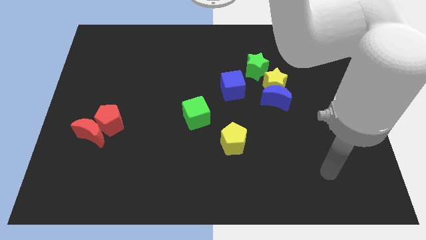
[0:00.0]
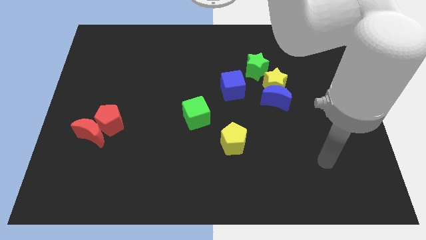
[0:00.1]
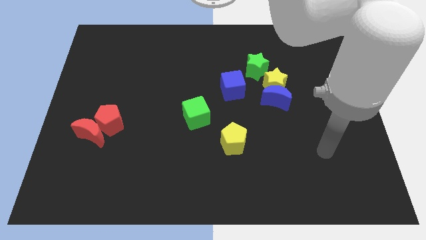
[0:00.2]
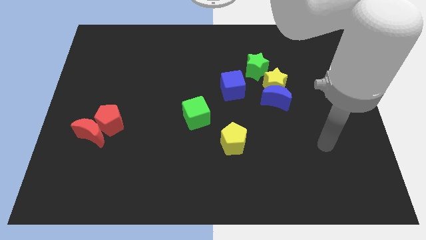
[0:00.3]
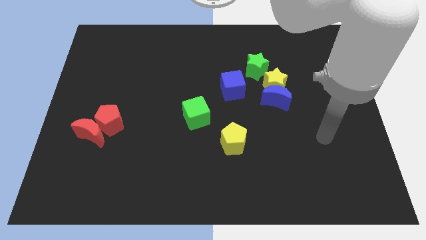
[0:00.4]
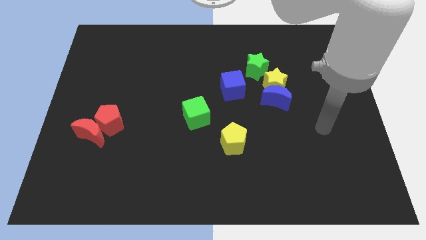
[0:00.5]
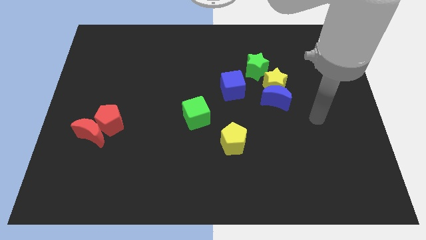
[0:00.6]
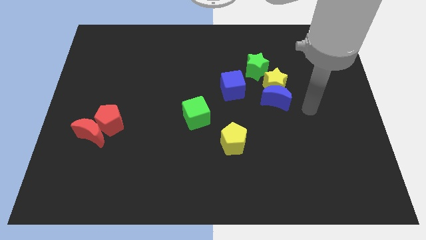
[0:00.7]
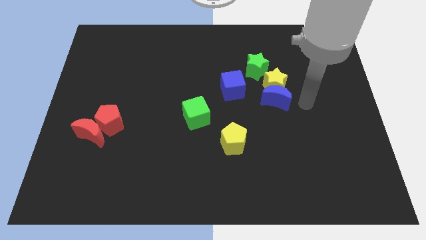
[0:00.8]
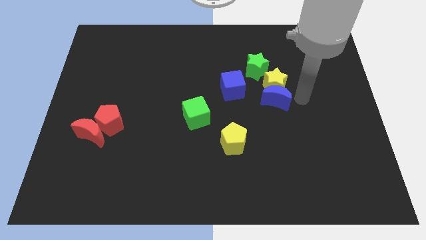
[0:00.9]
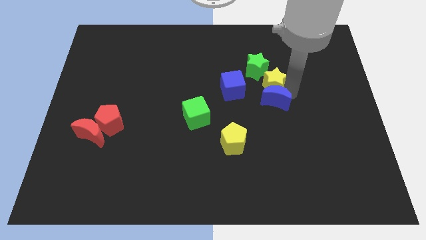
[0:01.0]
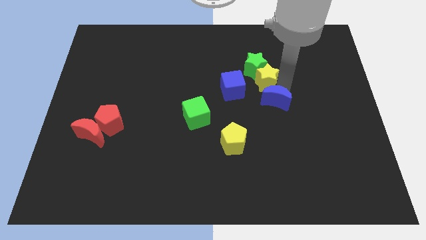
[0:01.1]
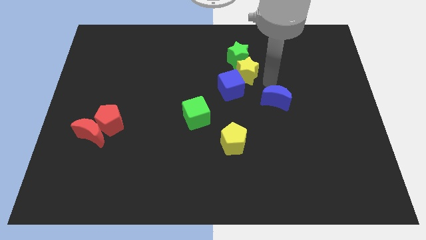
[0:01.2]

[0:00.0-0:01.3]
pull the blue moon apart from the yellow star

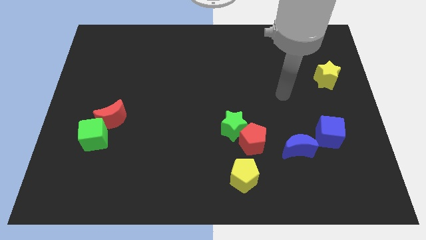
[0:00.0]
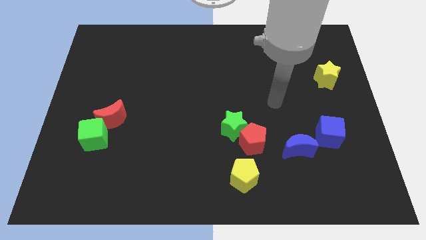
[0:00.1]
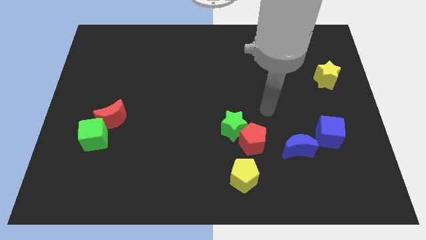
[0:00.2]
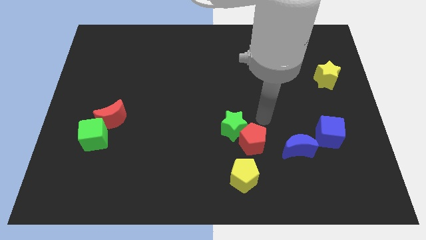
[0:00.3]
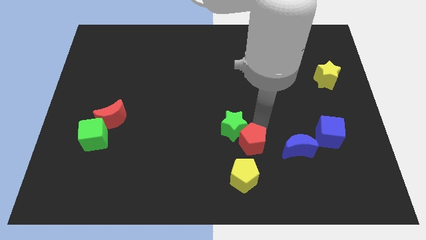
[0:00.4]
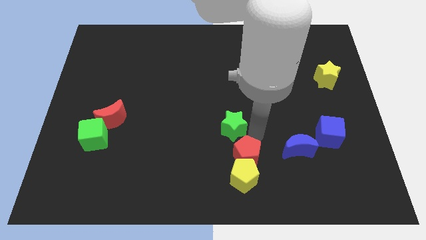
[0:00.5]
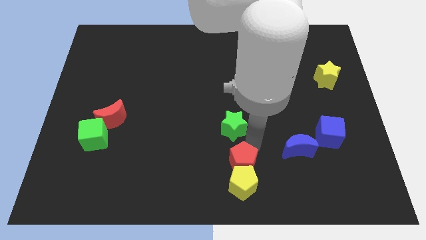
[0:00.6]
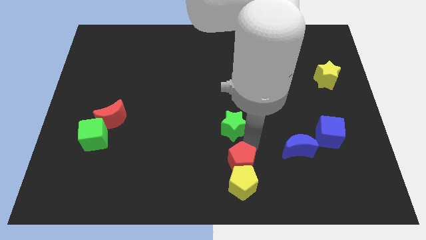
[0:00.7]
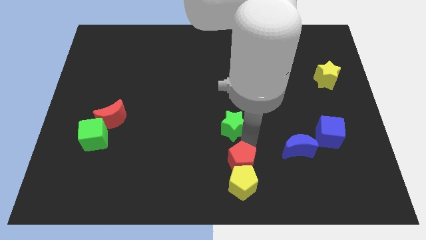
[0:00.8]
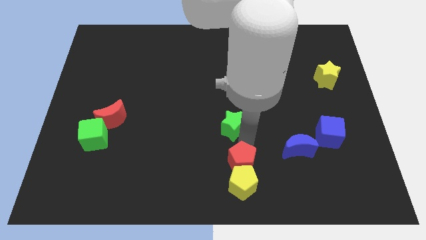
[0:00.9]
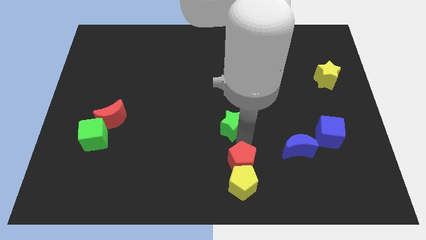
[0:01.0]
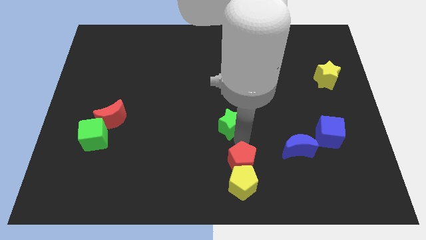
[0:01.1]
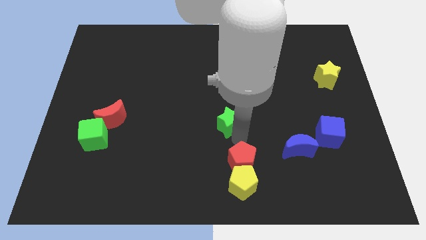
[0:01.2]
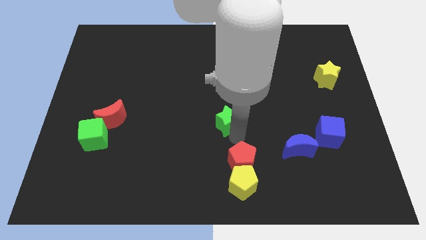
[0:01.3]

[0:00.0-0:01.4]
move the green star away from the red pentagon

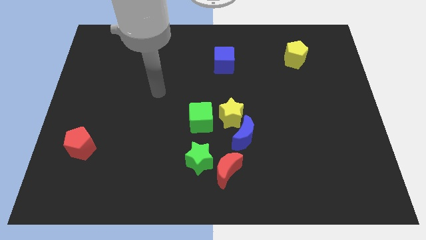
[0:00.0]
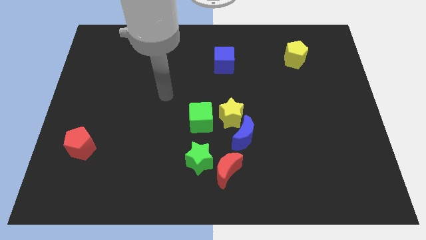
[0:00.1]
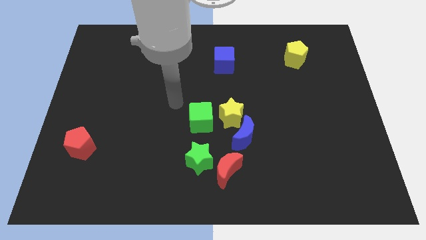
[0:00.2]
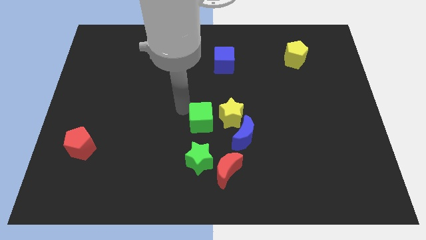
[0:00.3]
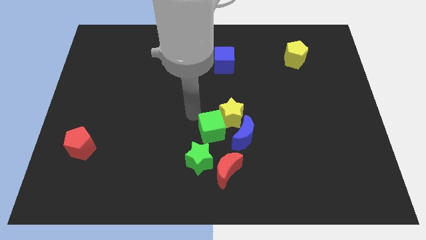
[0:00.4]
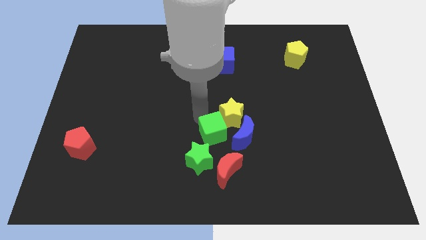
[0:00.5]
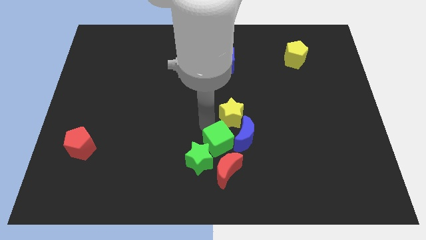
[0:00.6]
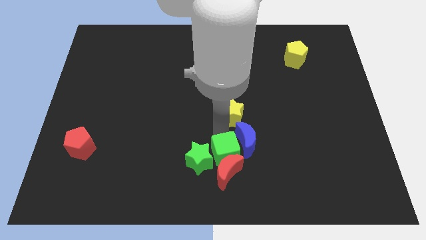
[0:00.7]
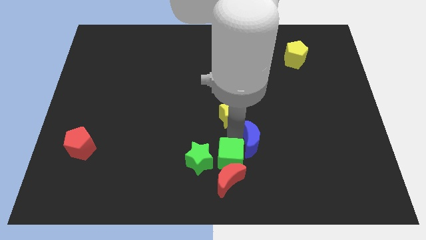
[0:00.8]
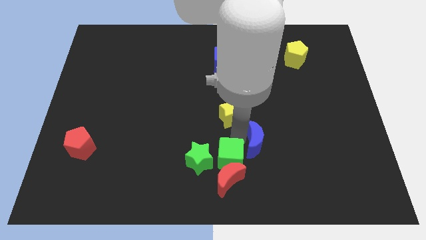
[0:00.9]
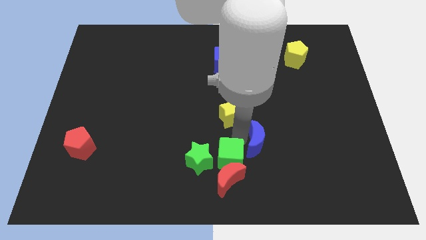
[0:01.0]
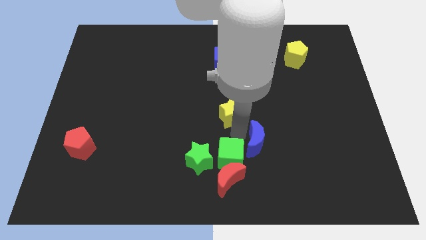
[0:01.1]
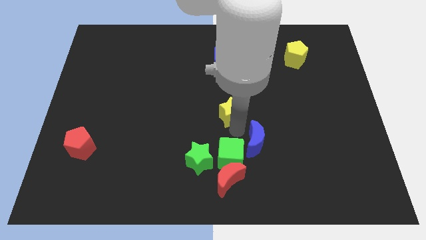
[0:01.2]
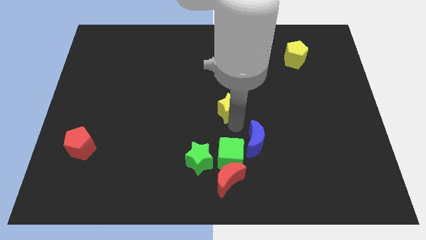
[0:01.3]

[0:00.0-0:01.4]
pull the yellow star apart from the blue moon and green cube

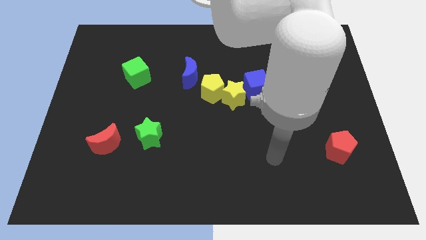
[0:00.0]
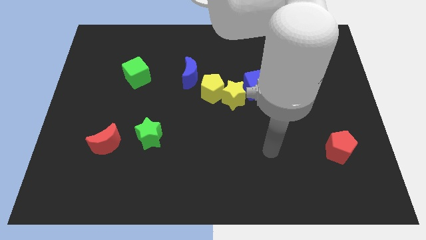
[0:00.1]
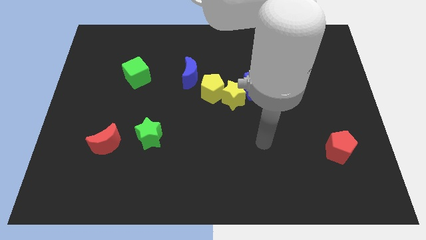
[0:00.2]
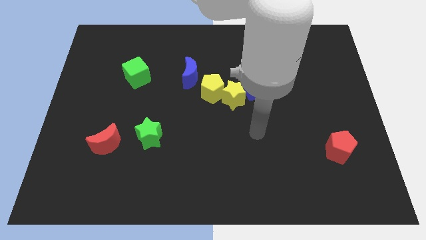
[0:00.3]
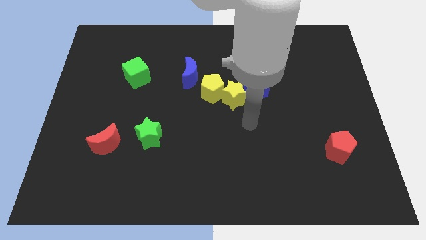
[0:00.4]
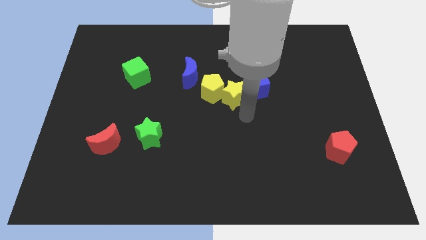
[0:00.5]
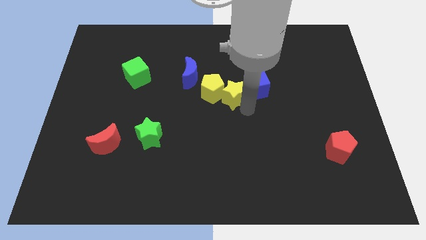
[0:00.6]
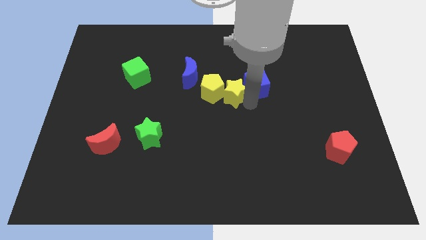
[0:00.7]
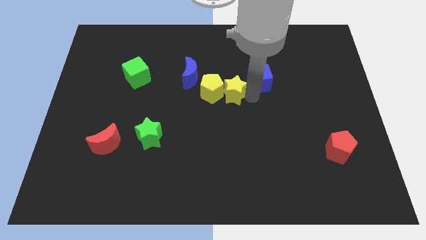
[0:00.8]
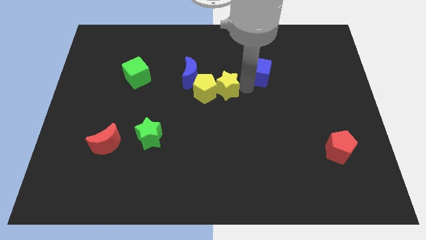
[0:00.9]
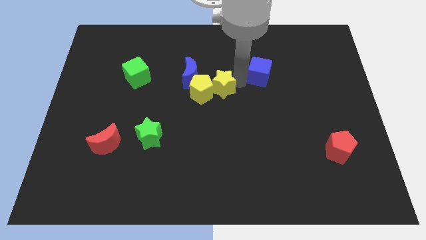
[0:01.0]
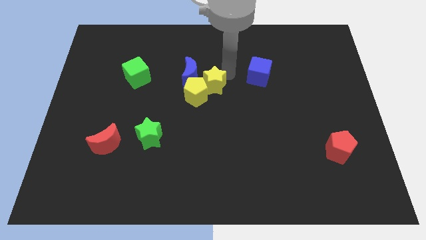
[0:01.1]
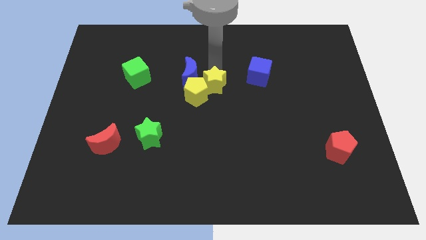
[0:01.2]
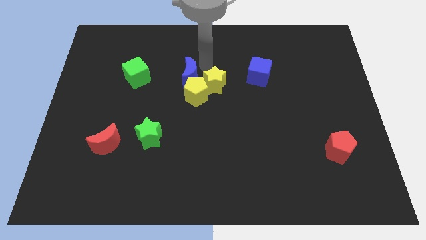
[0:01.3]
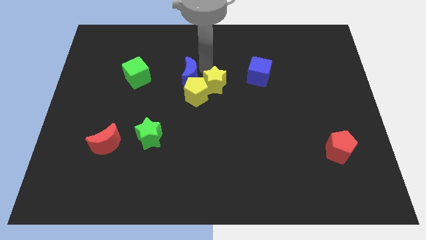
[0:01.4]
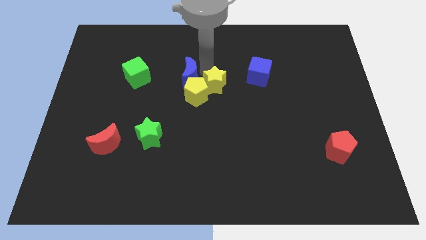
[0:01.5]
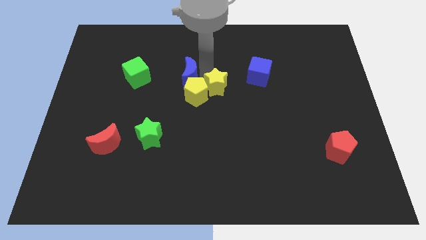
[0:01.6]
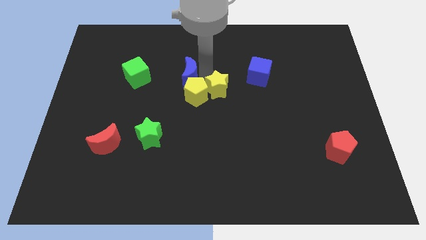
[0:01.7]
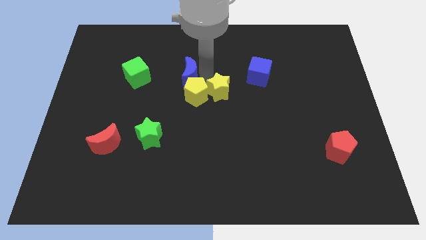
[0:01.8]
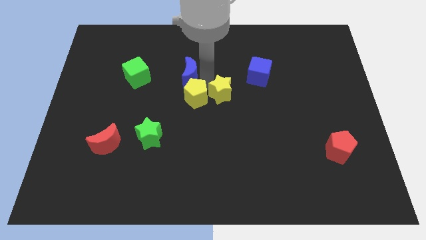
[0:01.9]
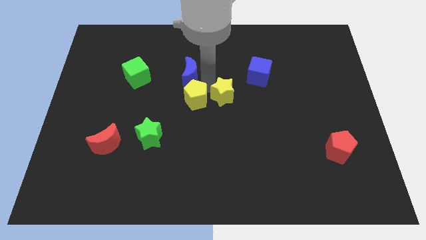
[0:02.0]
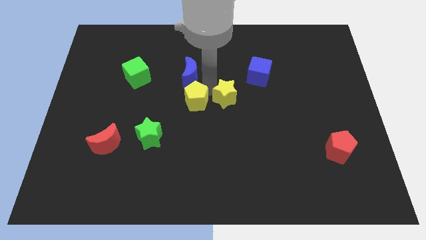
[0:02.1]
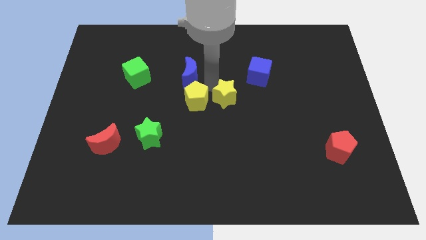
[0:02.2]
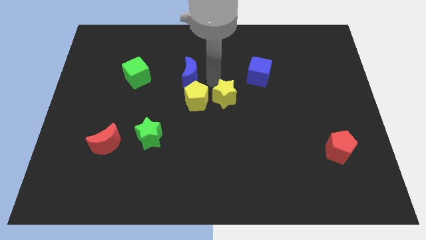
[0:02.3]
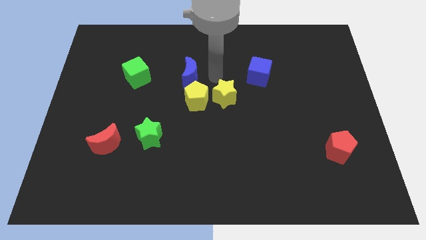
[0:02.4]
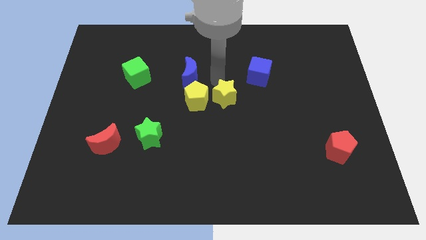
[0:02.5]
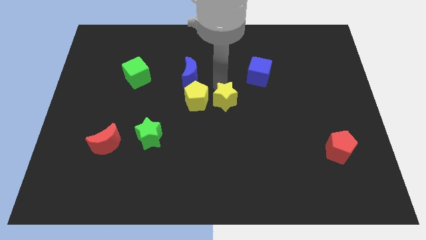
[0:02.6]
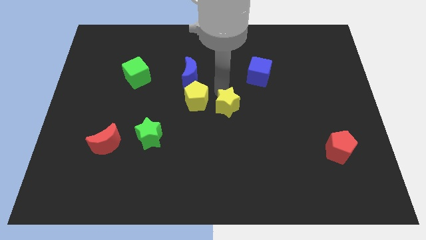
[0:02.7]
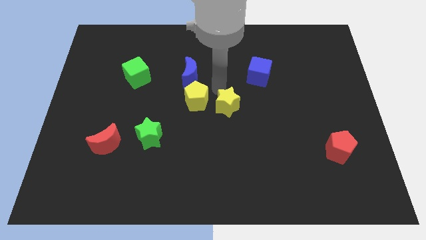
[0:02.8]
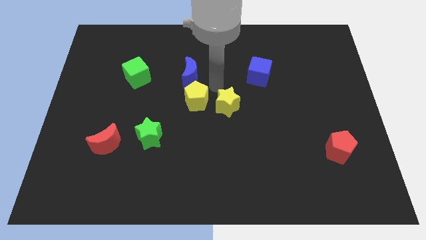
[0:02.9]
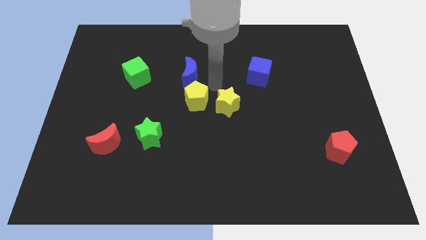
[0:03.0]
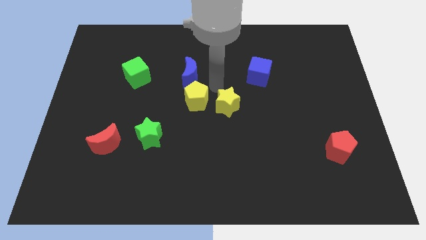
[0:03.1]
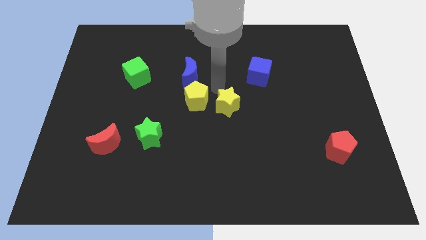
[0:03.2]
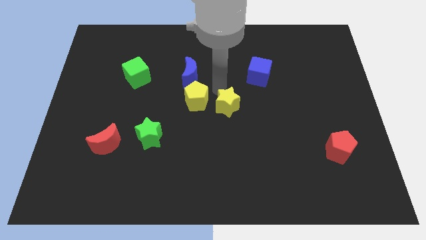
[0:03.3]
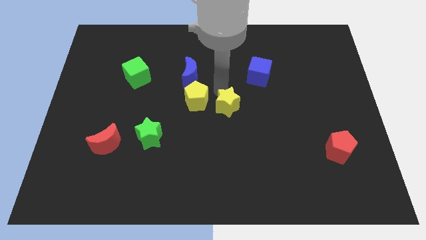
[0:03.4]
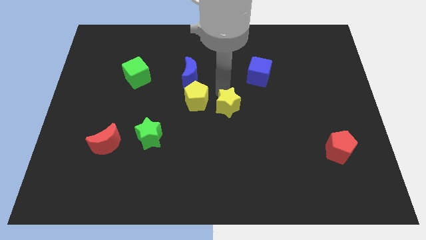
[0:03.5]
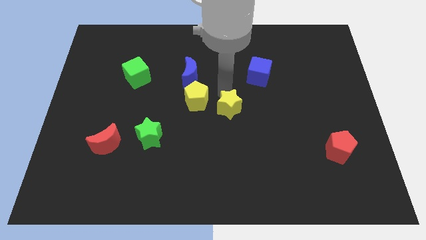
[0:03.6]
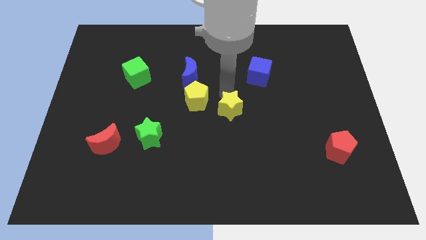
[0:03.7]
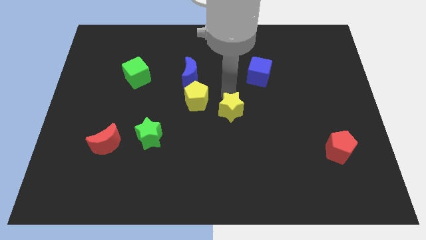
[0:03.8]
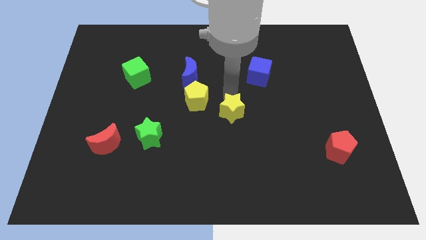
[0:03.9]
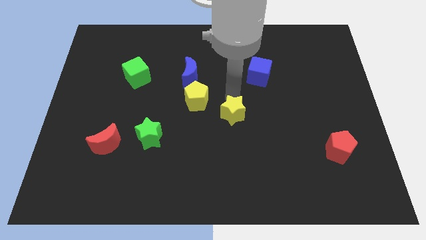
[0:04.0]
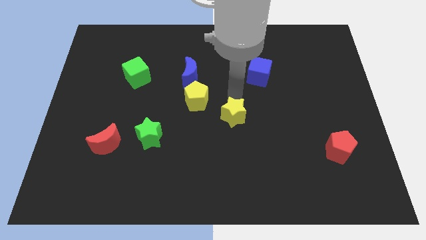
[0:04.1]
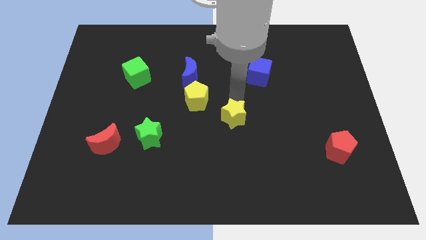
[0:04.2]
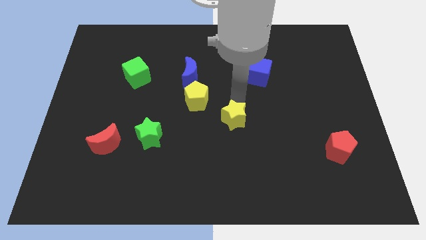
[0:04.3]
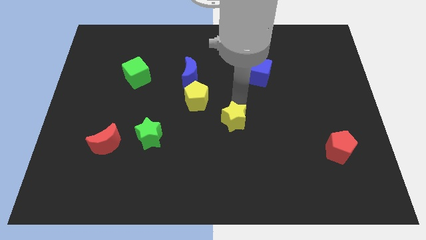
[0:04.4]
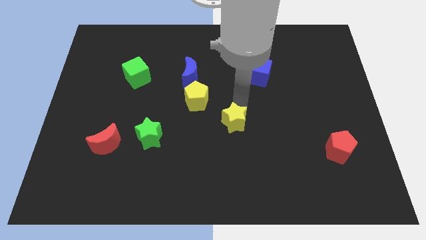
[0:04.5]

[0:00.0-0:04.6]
separate the yellow star from the yellow pentagon and blue cube

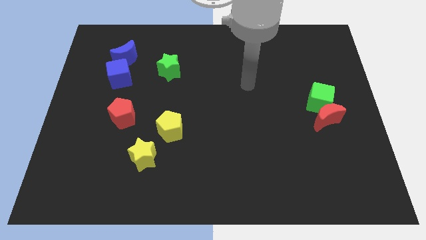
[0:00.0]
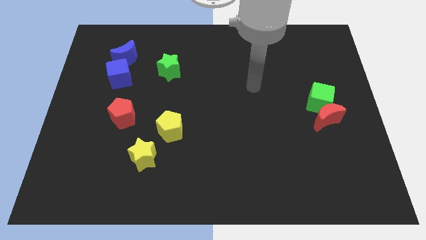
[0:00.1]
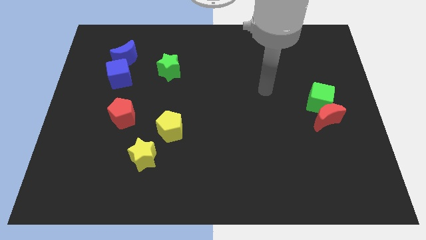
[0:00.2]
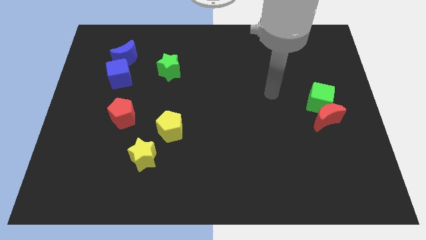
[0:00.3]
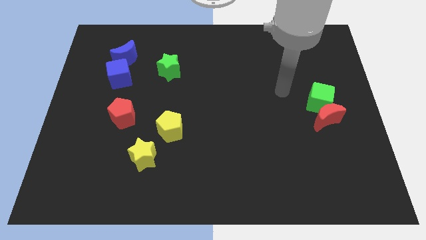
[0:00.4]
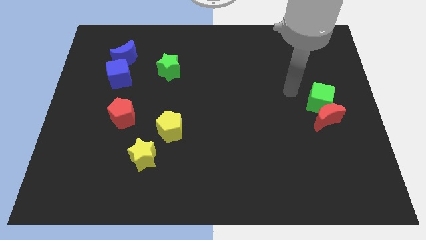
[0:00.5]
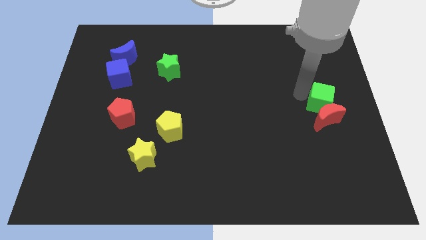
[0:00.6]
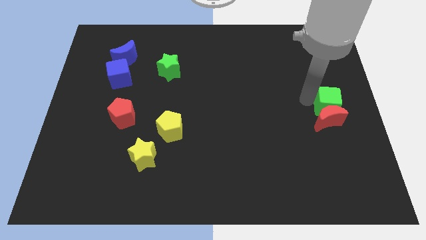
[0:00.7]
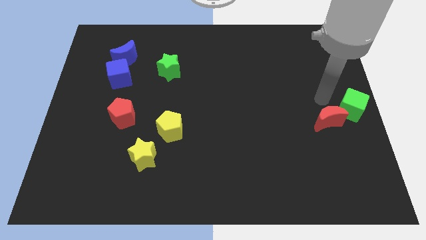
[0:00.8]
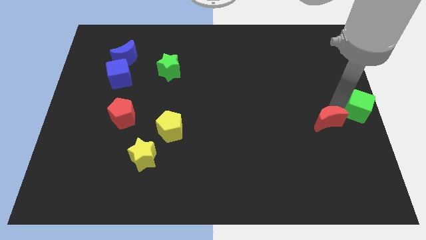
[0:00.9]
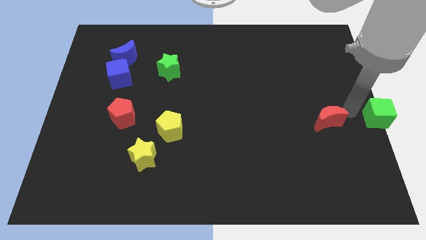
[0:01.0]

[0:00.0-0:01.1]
move the red moon away from the green cube
